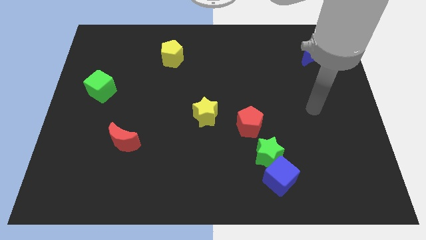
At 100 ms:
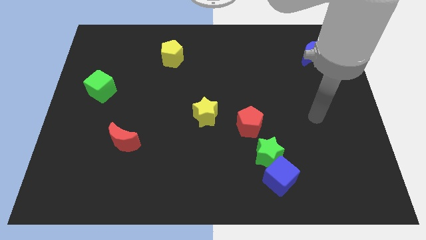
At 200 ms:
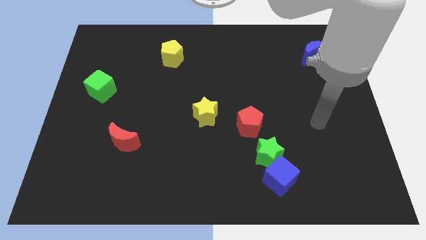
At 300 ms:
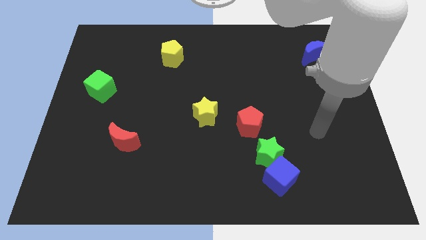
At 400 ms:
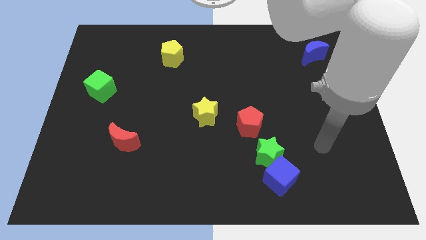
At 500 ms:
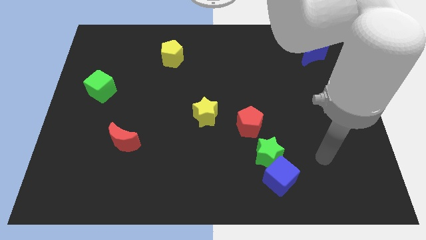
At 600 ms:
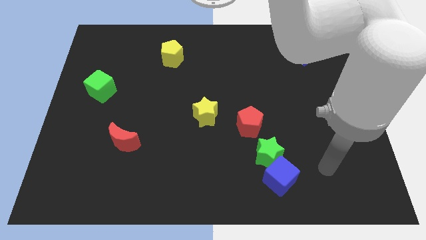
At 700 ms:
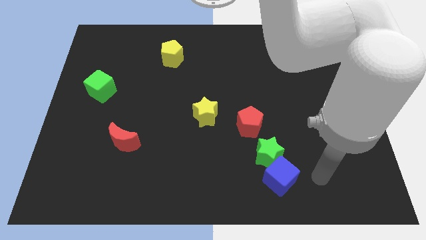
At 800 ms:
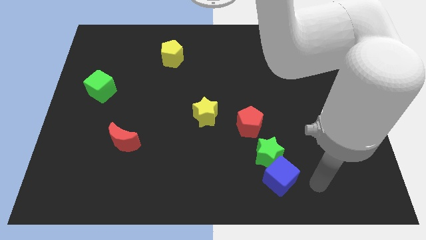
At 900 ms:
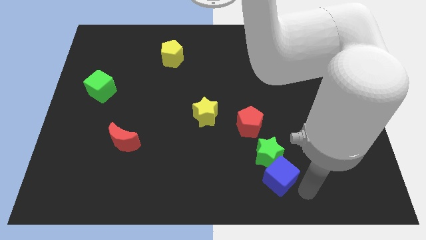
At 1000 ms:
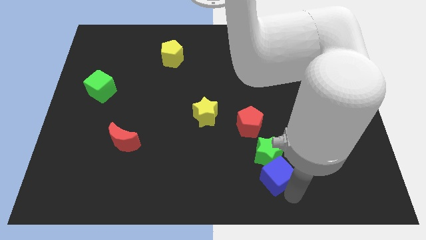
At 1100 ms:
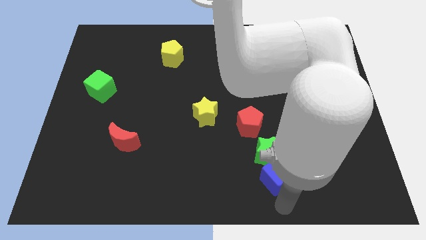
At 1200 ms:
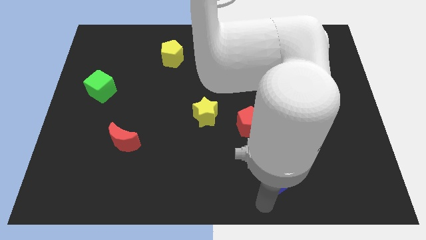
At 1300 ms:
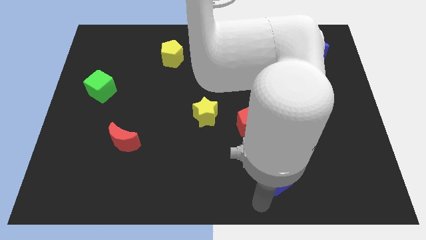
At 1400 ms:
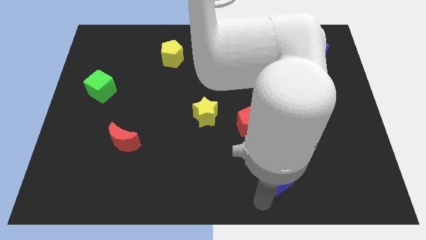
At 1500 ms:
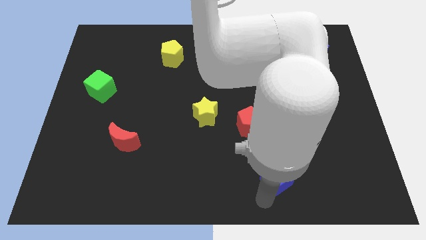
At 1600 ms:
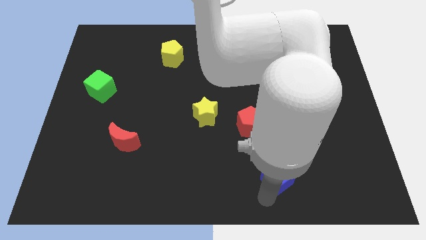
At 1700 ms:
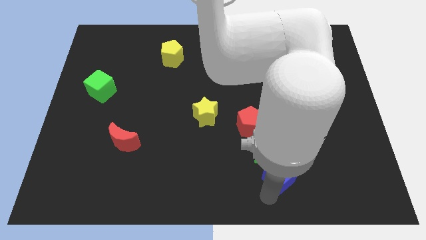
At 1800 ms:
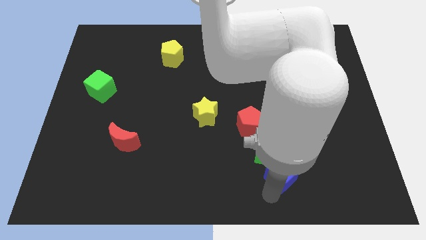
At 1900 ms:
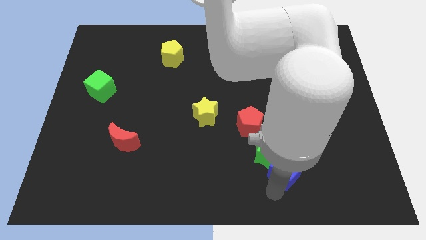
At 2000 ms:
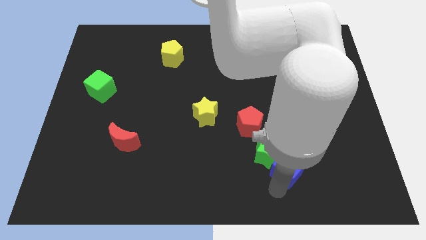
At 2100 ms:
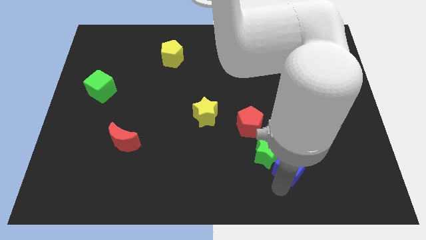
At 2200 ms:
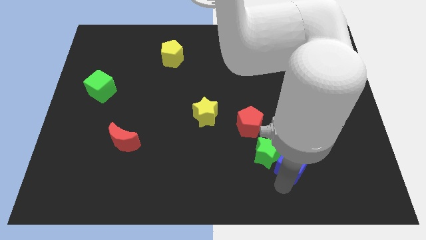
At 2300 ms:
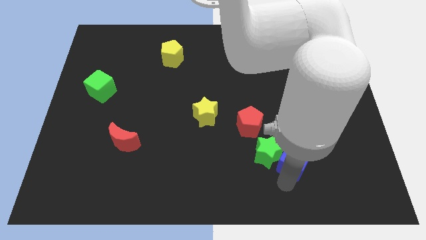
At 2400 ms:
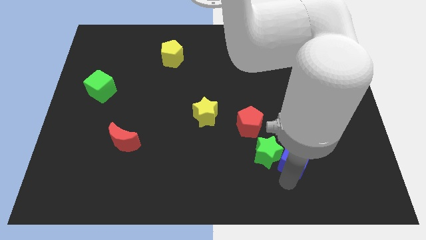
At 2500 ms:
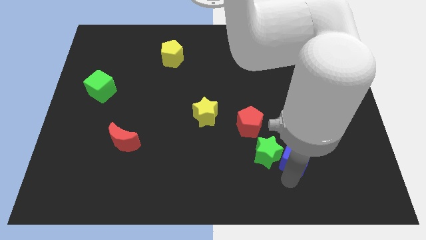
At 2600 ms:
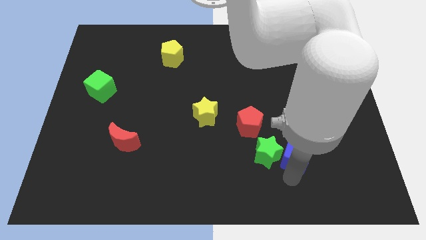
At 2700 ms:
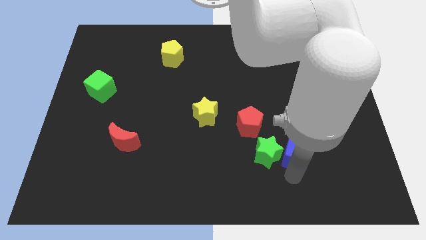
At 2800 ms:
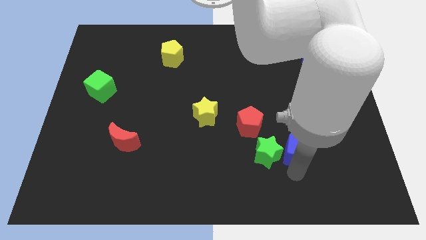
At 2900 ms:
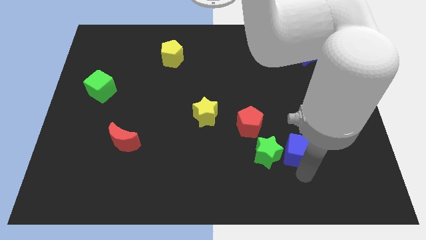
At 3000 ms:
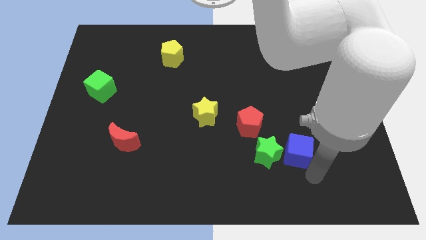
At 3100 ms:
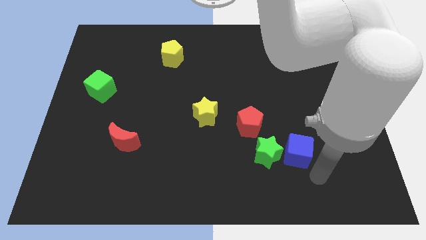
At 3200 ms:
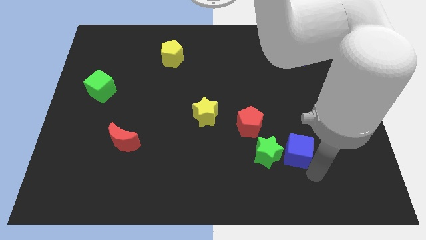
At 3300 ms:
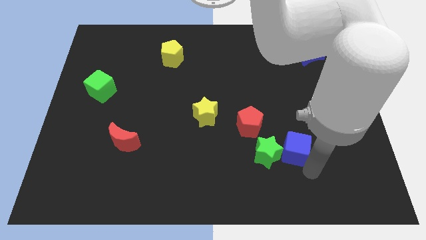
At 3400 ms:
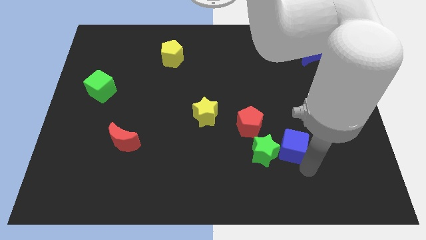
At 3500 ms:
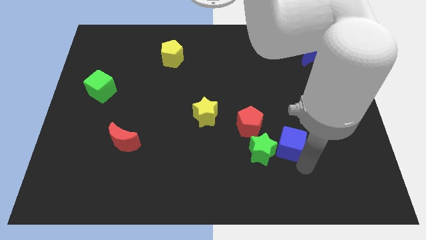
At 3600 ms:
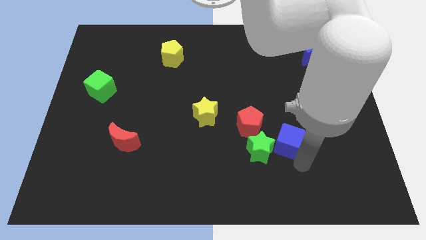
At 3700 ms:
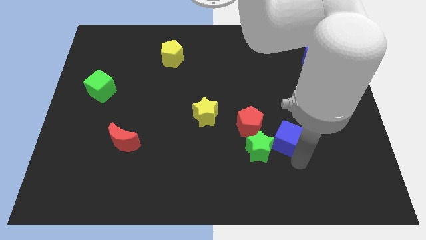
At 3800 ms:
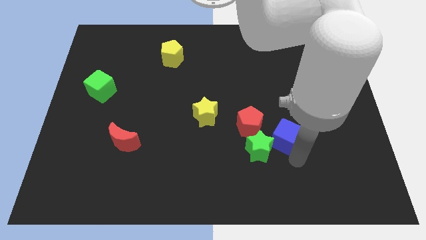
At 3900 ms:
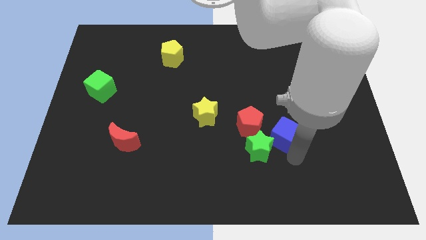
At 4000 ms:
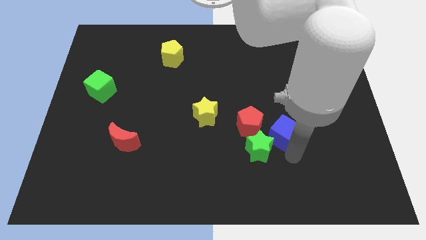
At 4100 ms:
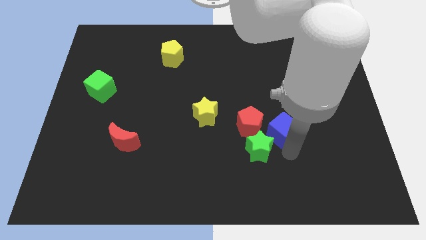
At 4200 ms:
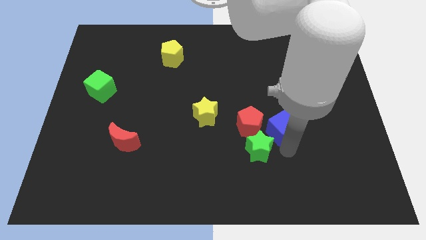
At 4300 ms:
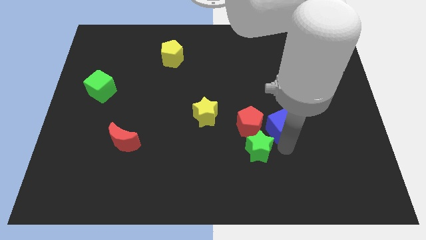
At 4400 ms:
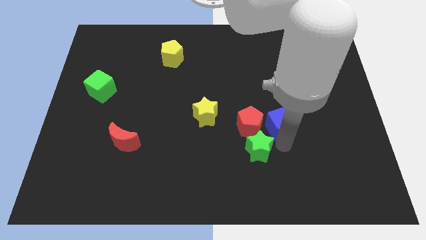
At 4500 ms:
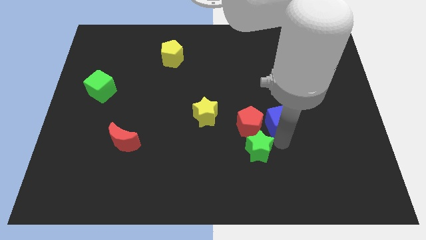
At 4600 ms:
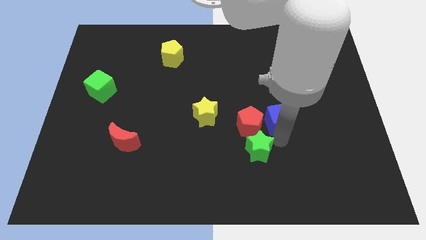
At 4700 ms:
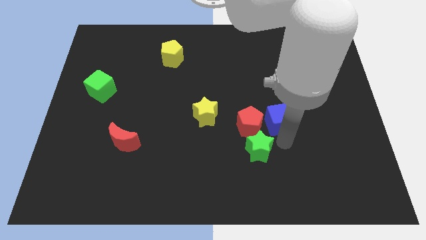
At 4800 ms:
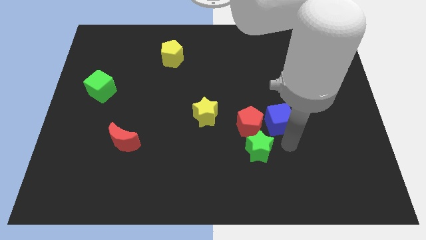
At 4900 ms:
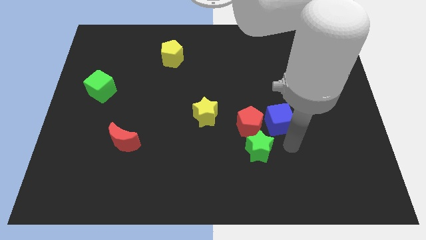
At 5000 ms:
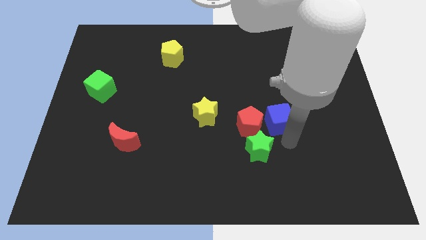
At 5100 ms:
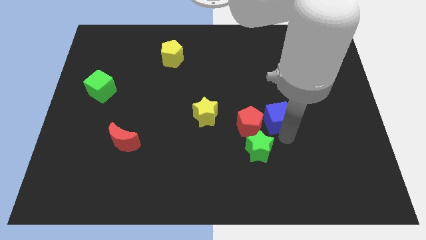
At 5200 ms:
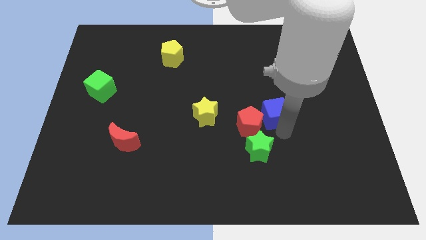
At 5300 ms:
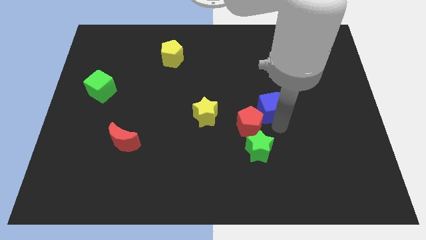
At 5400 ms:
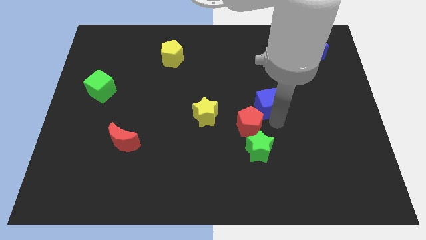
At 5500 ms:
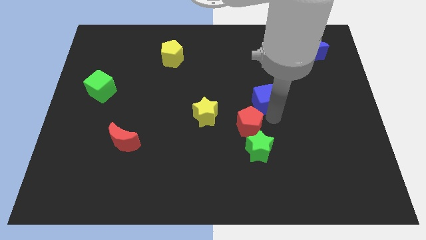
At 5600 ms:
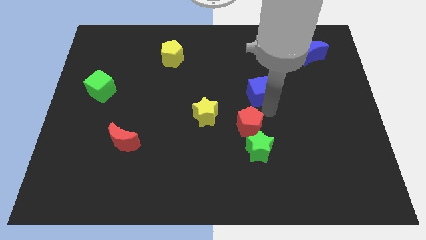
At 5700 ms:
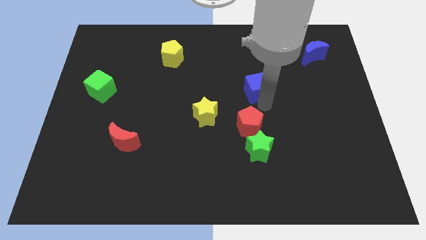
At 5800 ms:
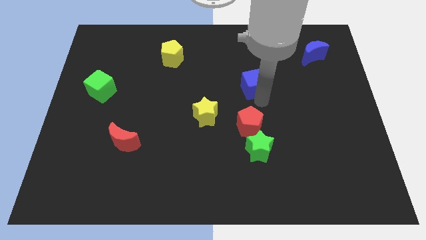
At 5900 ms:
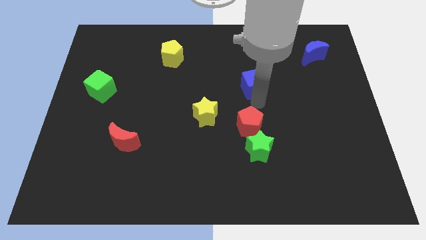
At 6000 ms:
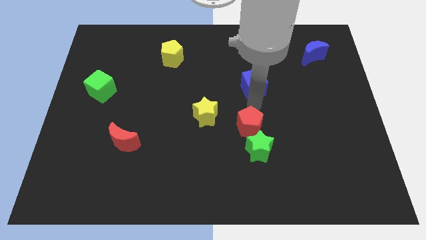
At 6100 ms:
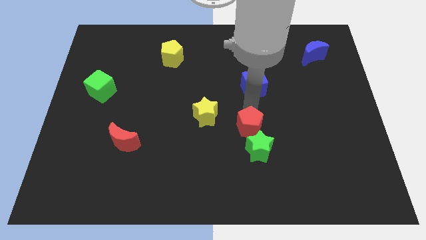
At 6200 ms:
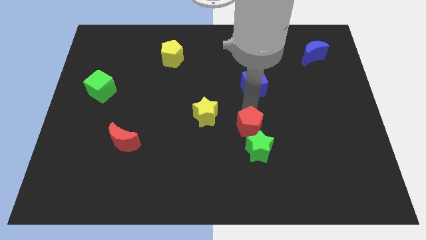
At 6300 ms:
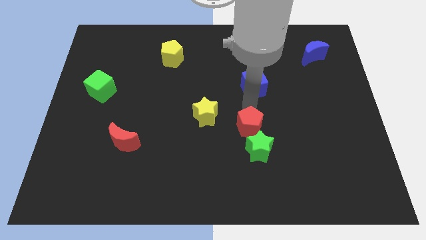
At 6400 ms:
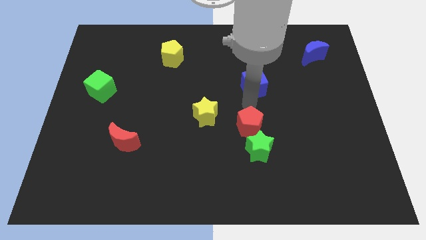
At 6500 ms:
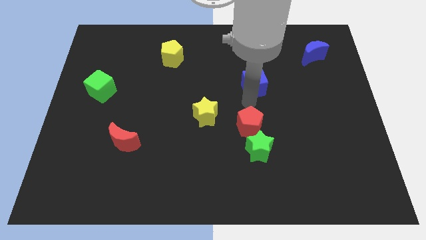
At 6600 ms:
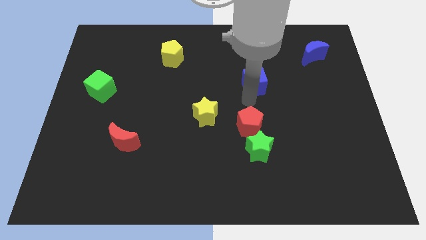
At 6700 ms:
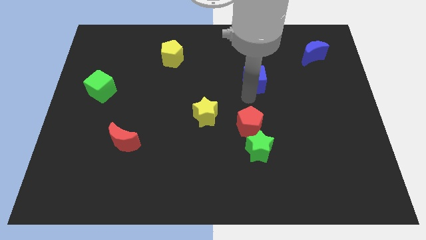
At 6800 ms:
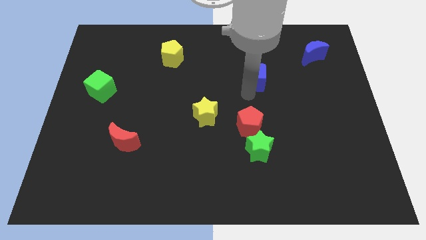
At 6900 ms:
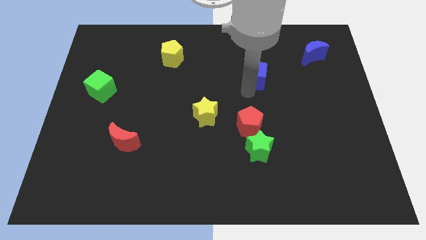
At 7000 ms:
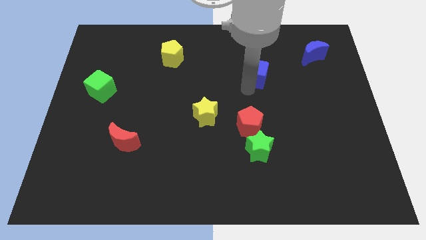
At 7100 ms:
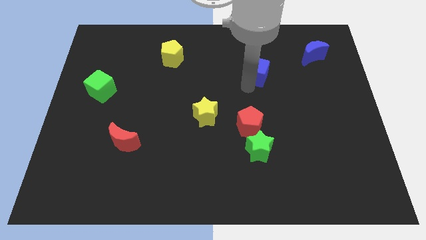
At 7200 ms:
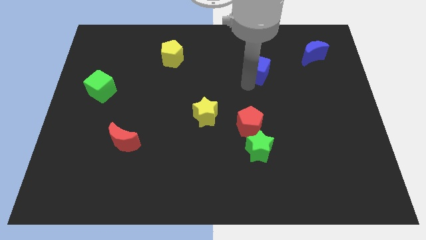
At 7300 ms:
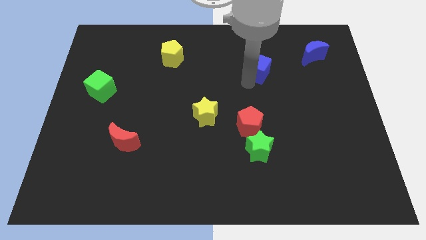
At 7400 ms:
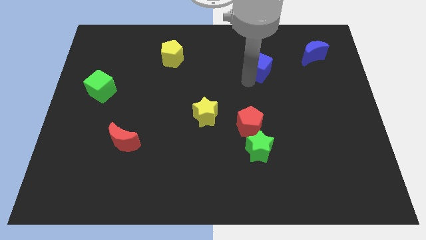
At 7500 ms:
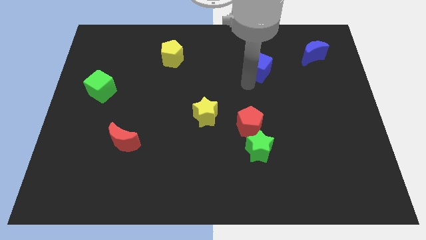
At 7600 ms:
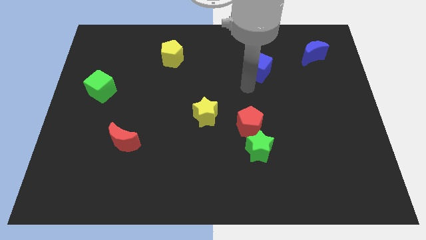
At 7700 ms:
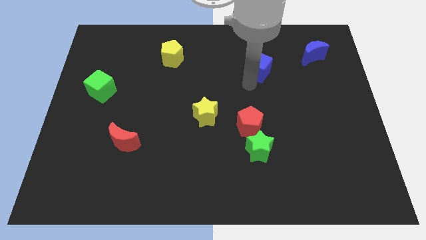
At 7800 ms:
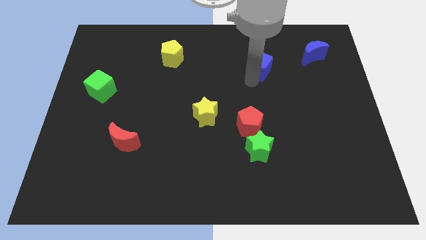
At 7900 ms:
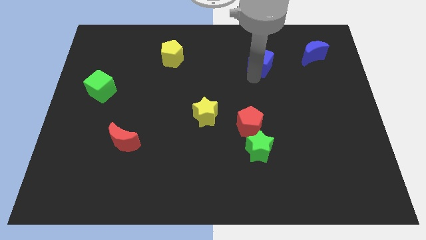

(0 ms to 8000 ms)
move the blue cube left of the blue moon
